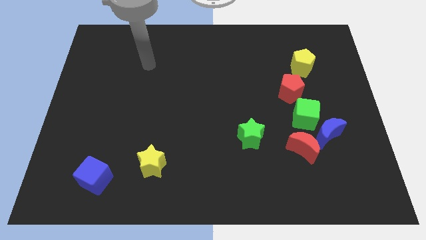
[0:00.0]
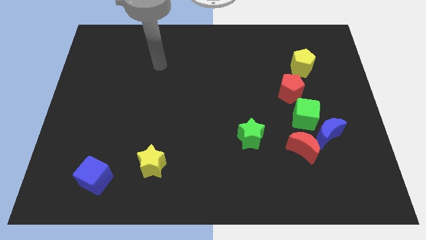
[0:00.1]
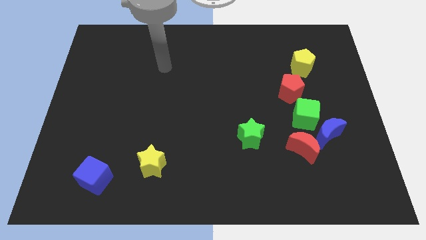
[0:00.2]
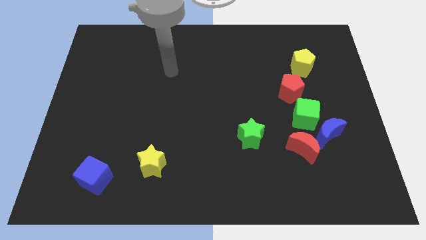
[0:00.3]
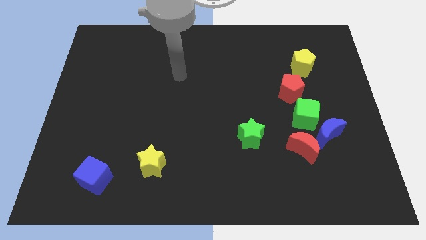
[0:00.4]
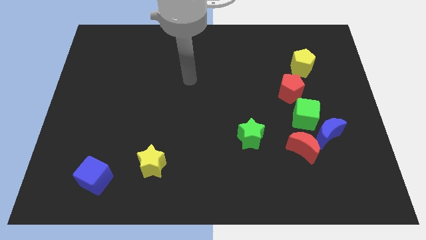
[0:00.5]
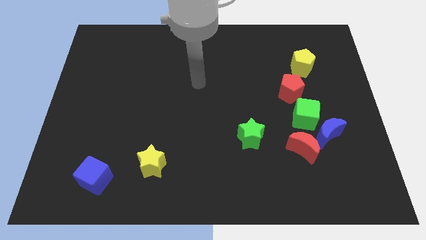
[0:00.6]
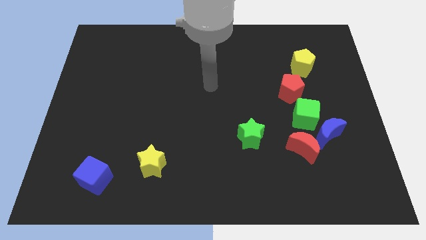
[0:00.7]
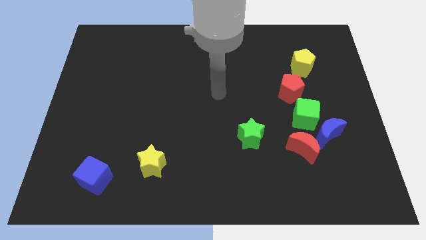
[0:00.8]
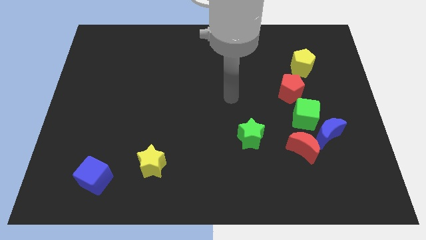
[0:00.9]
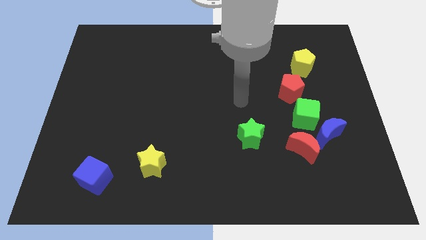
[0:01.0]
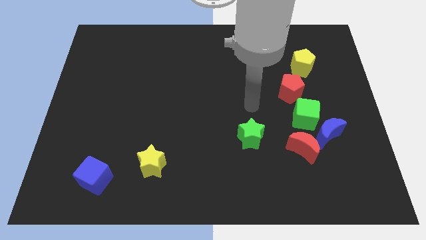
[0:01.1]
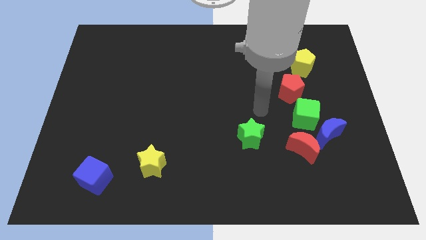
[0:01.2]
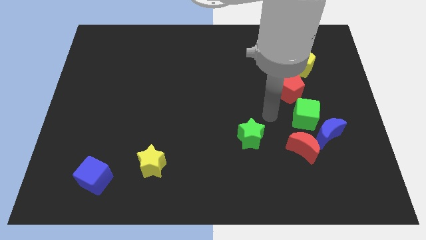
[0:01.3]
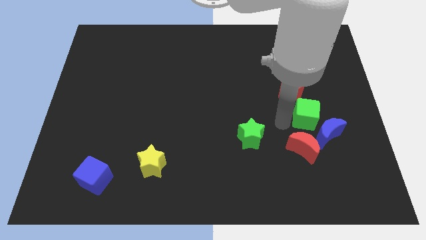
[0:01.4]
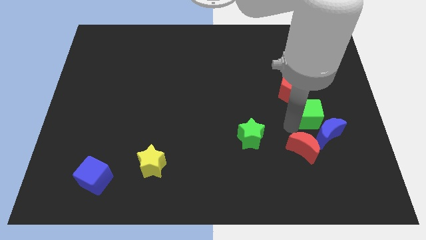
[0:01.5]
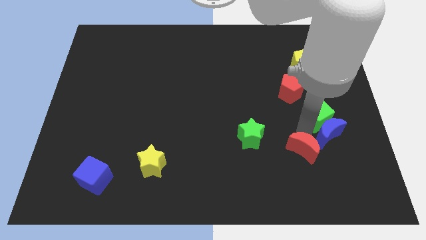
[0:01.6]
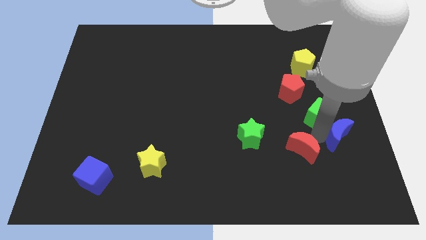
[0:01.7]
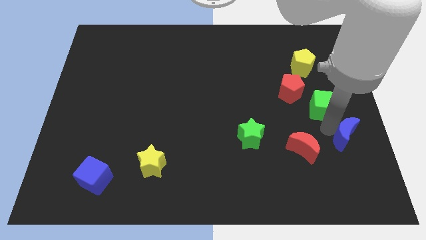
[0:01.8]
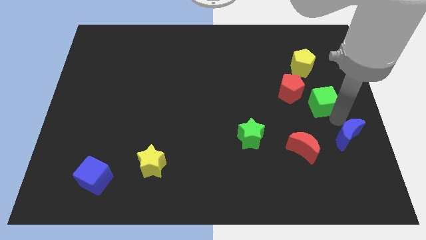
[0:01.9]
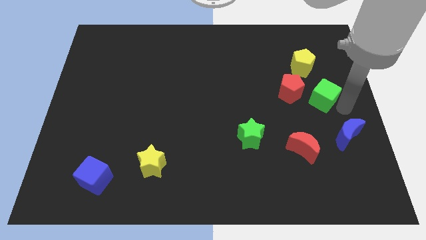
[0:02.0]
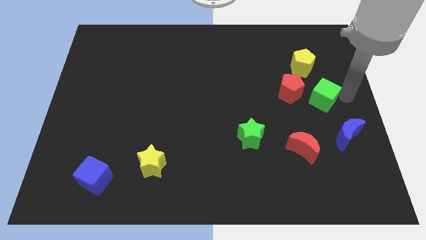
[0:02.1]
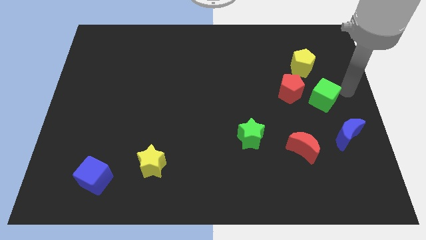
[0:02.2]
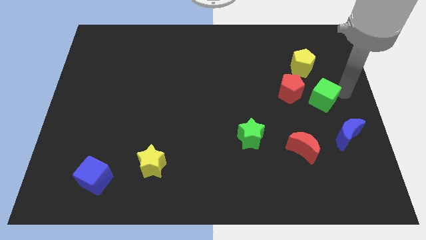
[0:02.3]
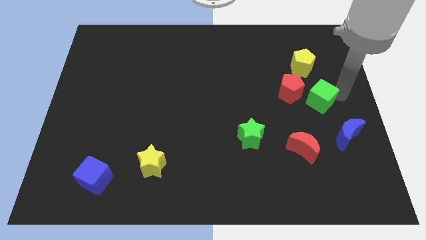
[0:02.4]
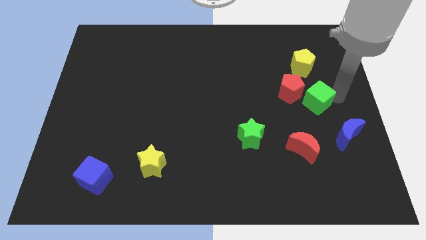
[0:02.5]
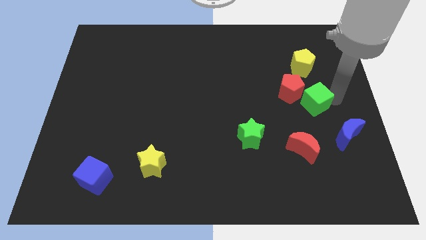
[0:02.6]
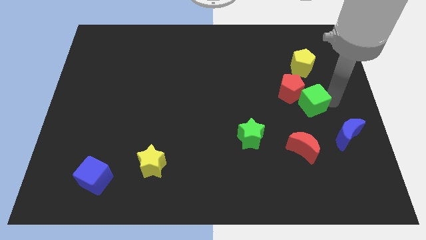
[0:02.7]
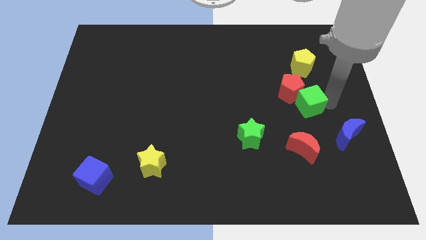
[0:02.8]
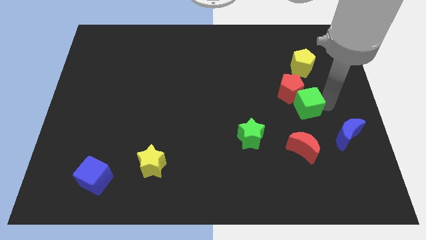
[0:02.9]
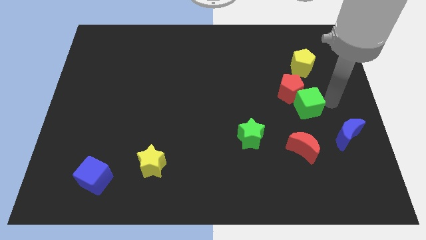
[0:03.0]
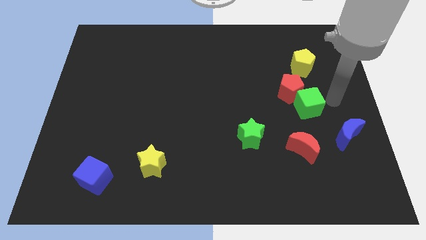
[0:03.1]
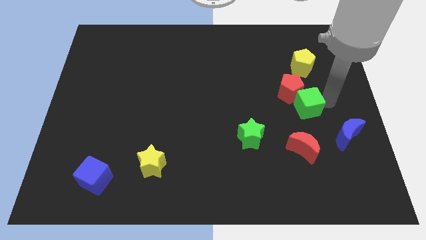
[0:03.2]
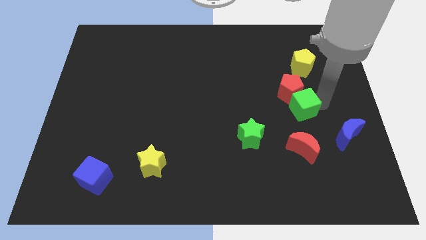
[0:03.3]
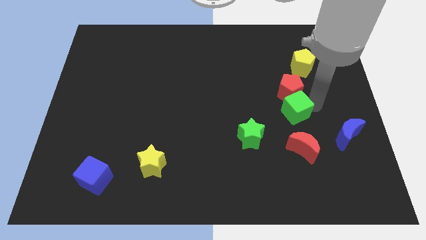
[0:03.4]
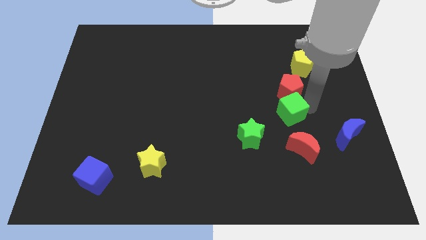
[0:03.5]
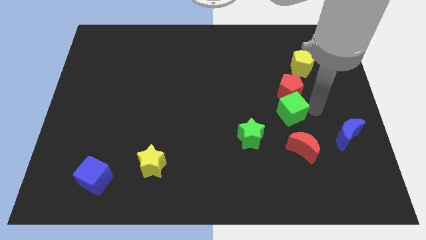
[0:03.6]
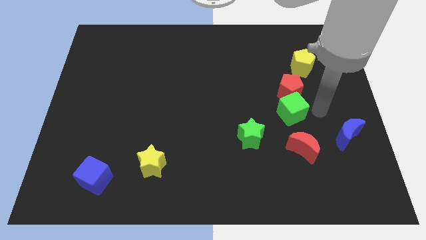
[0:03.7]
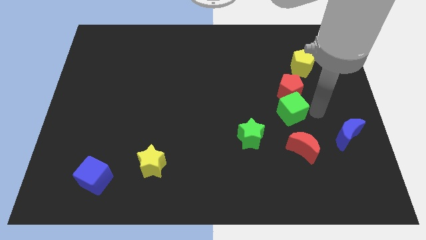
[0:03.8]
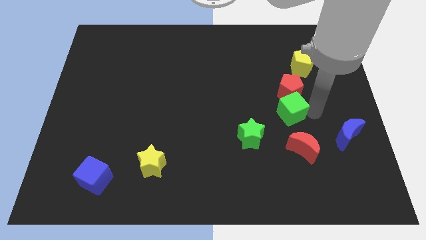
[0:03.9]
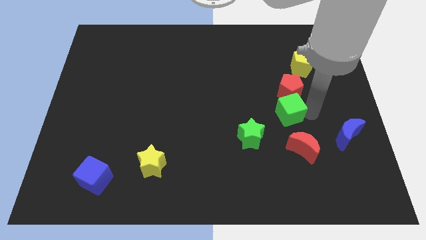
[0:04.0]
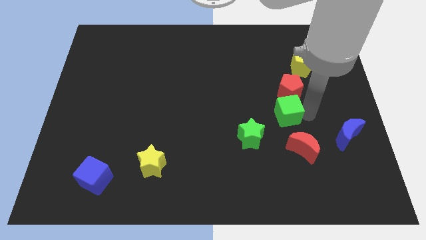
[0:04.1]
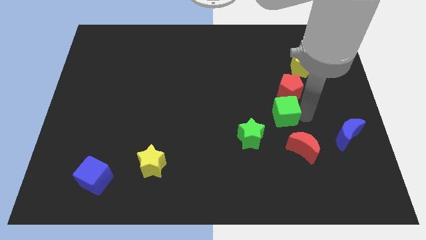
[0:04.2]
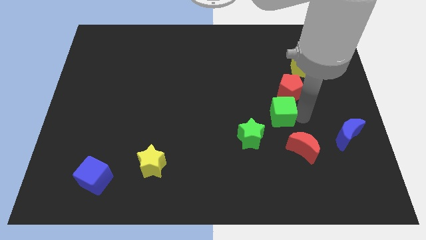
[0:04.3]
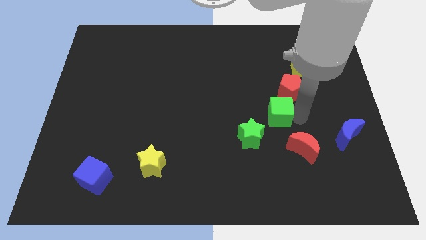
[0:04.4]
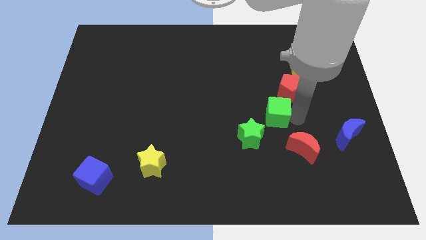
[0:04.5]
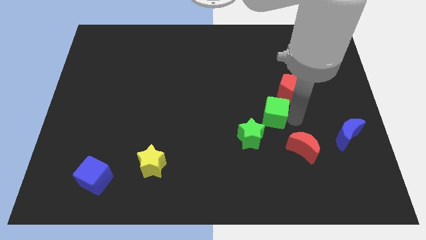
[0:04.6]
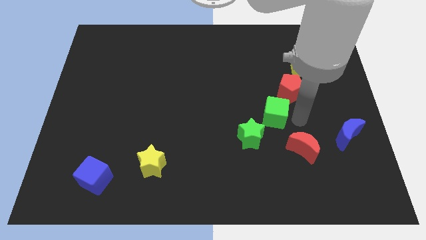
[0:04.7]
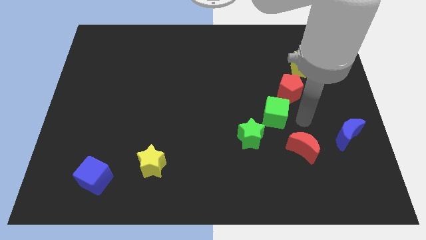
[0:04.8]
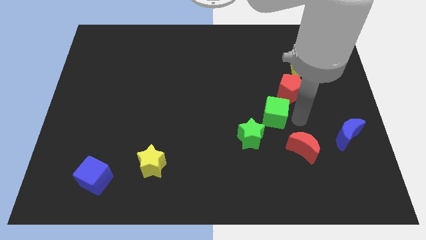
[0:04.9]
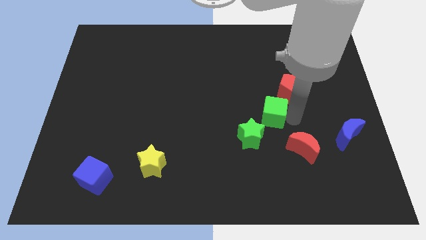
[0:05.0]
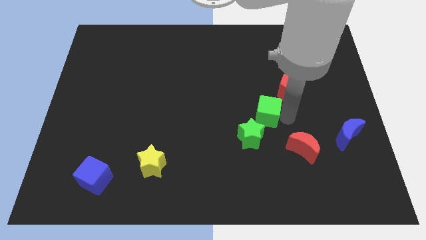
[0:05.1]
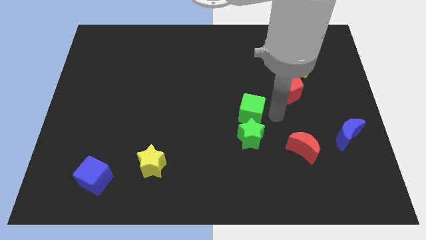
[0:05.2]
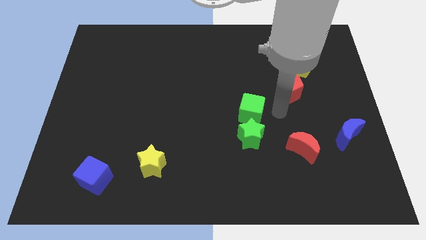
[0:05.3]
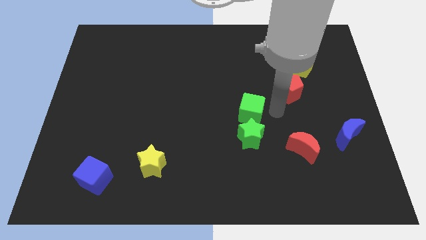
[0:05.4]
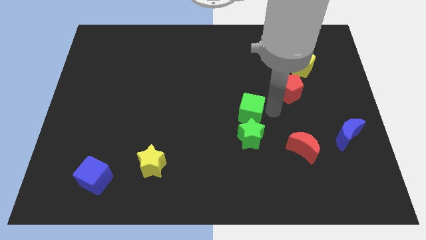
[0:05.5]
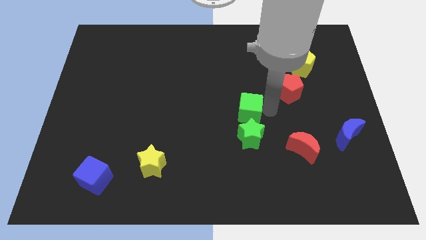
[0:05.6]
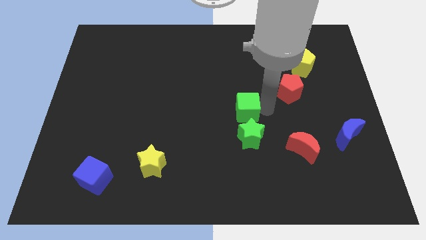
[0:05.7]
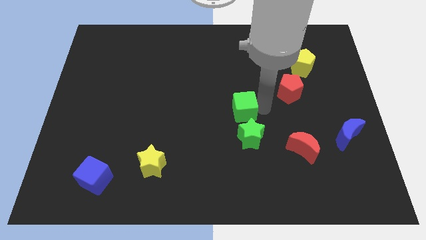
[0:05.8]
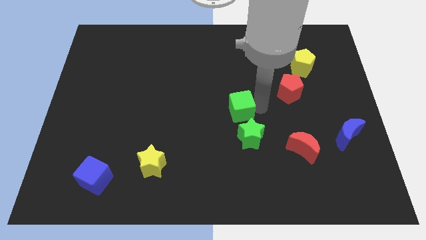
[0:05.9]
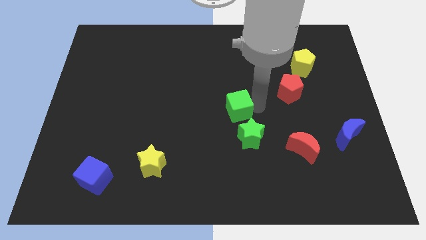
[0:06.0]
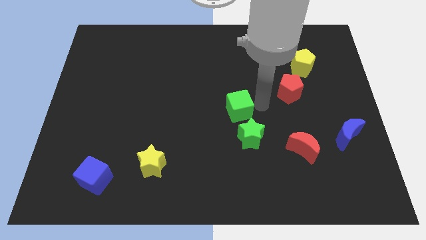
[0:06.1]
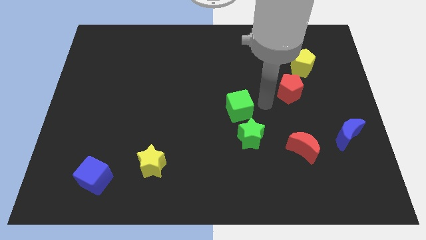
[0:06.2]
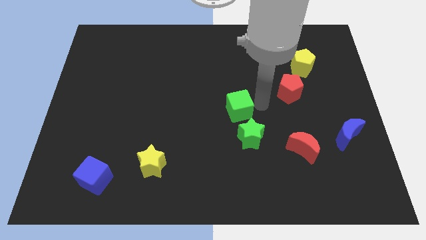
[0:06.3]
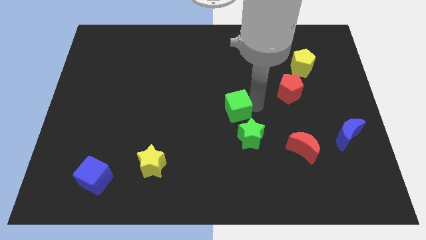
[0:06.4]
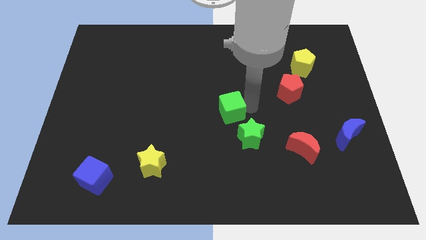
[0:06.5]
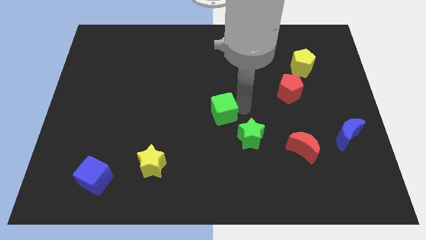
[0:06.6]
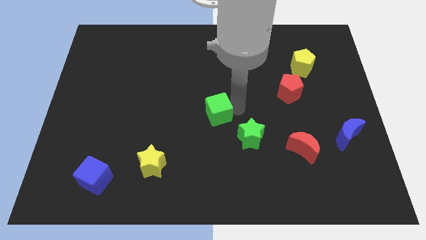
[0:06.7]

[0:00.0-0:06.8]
push the green cube to the left

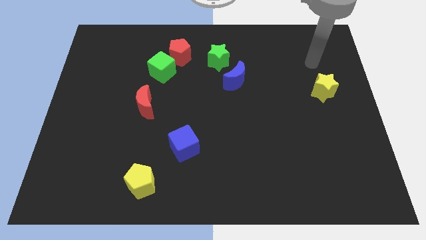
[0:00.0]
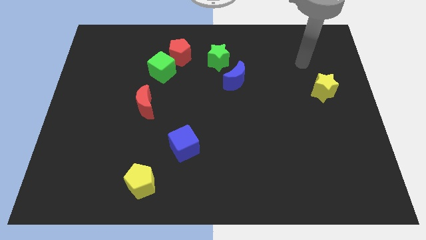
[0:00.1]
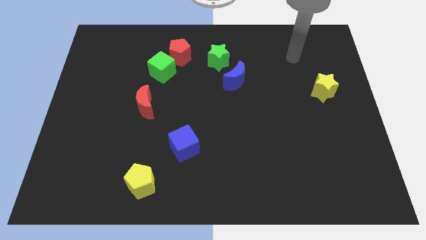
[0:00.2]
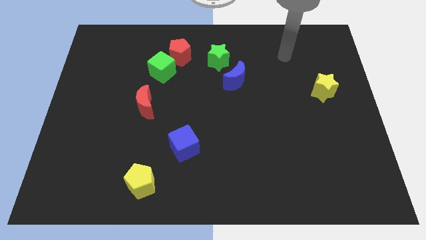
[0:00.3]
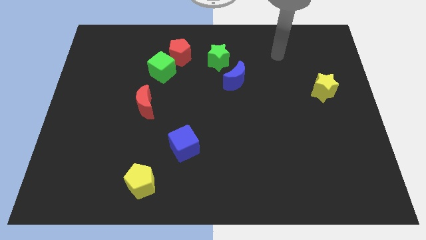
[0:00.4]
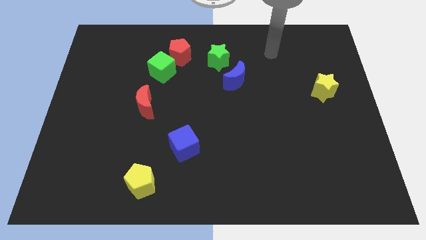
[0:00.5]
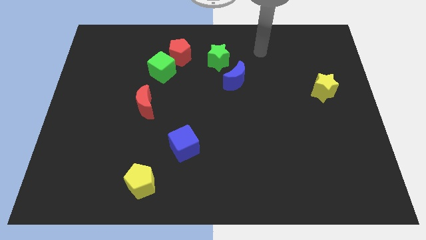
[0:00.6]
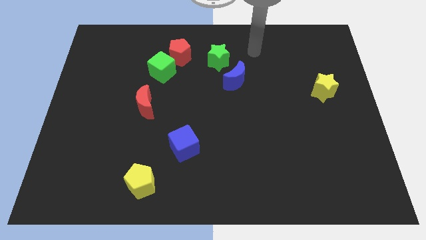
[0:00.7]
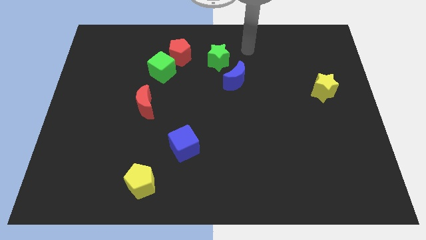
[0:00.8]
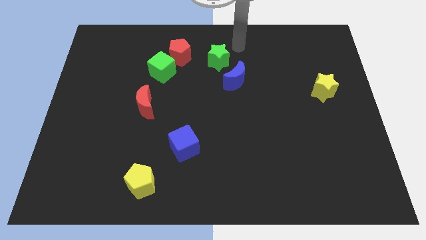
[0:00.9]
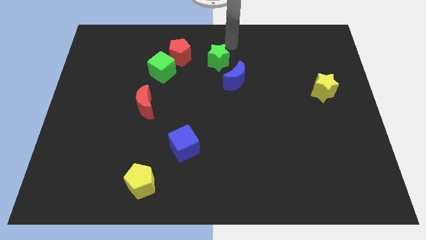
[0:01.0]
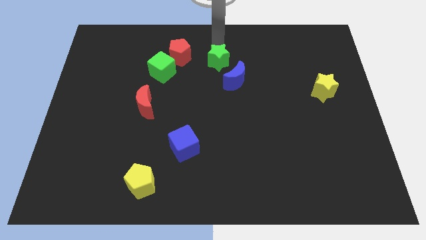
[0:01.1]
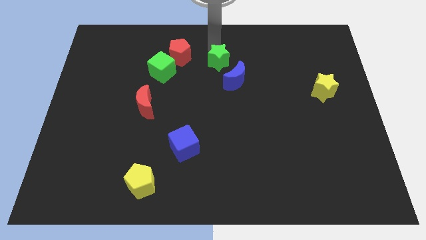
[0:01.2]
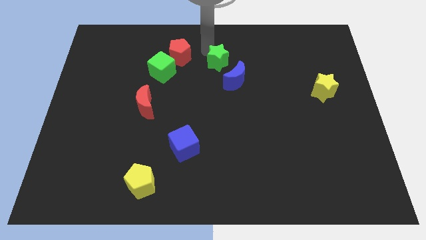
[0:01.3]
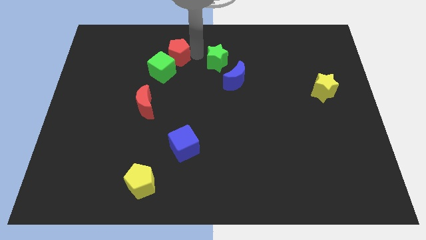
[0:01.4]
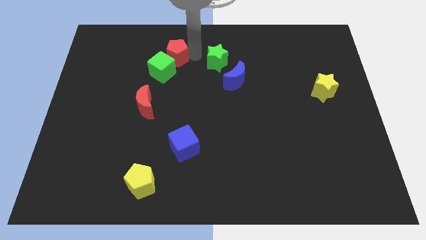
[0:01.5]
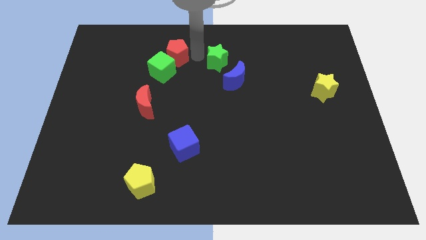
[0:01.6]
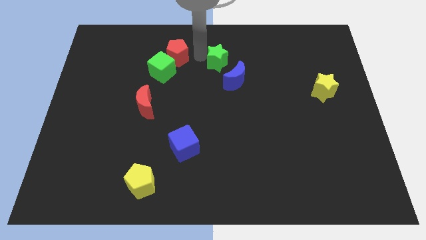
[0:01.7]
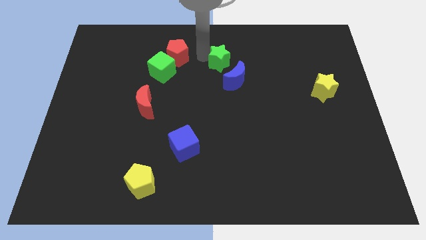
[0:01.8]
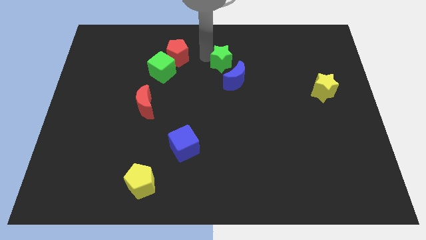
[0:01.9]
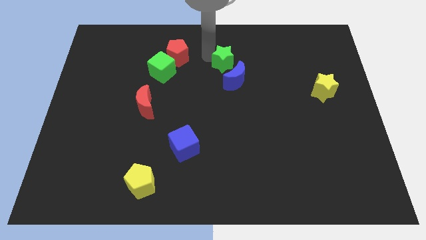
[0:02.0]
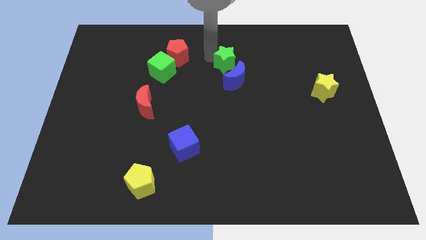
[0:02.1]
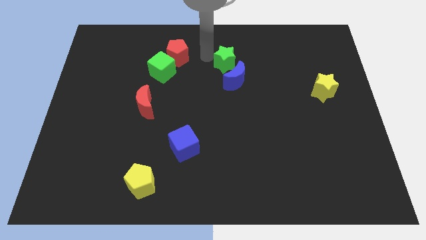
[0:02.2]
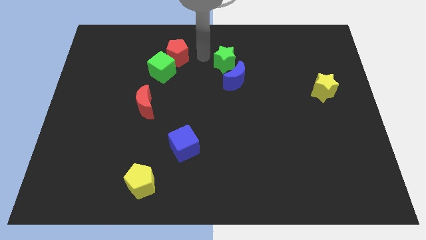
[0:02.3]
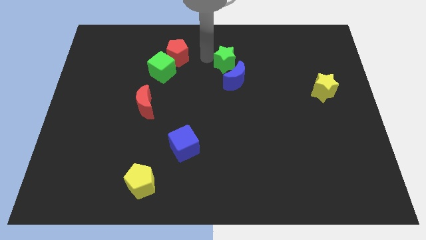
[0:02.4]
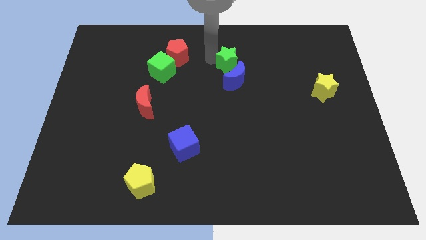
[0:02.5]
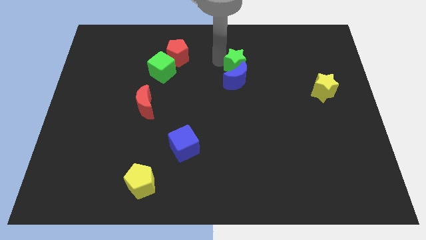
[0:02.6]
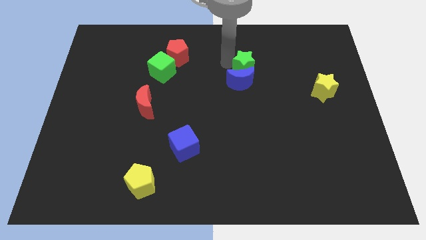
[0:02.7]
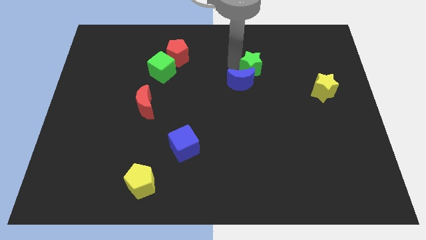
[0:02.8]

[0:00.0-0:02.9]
slide the green star a bit downwards and right
